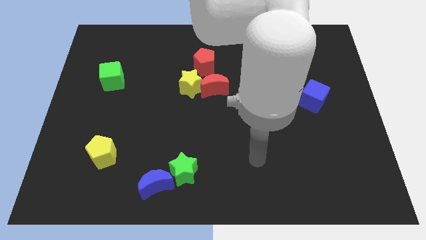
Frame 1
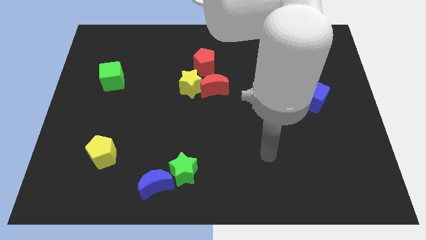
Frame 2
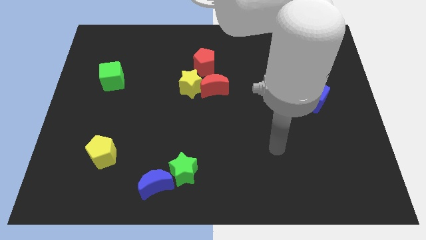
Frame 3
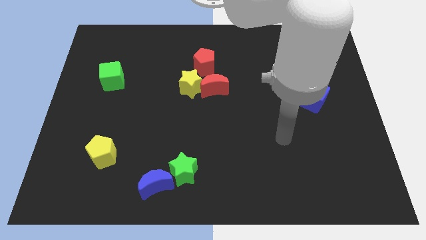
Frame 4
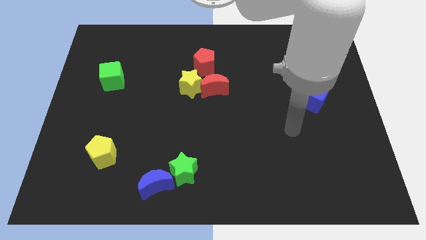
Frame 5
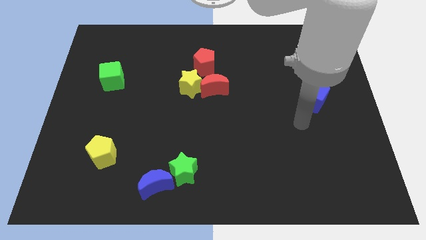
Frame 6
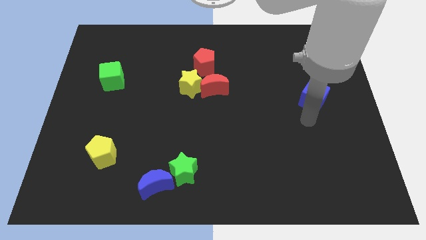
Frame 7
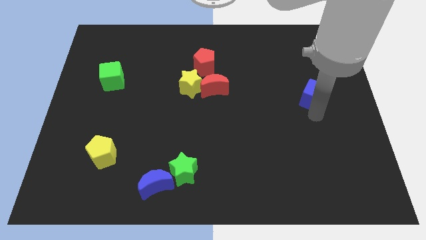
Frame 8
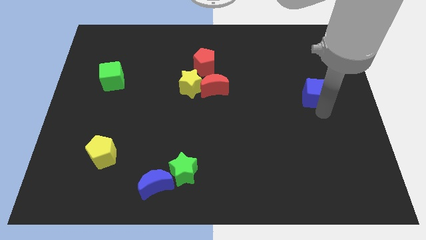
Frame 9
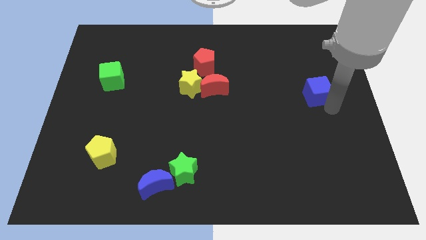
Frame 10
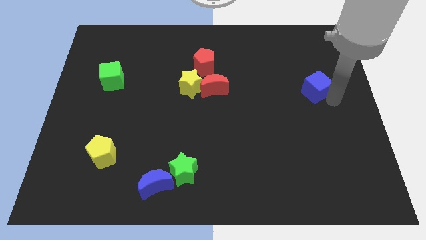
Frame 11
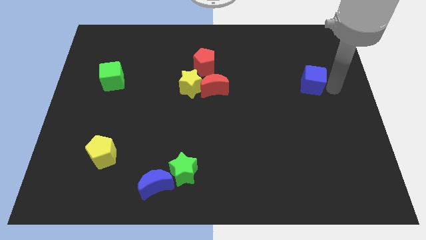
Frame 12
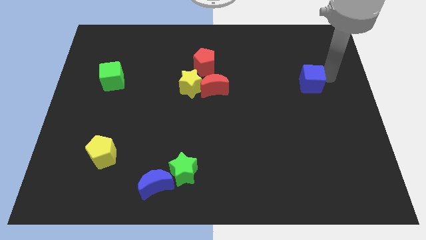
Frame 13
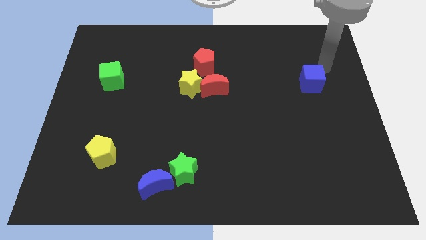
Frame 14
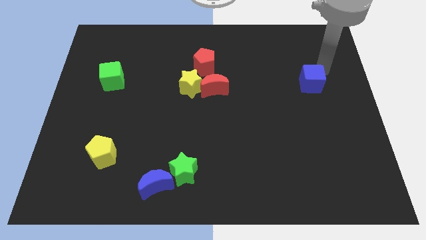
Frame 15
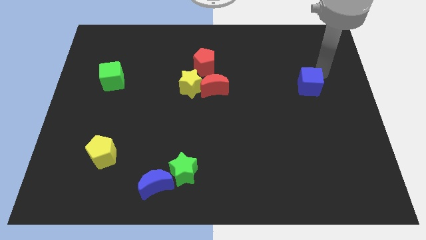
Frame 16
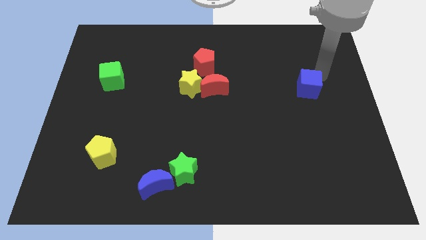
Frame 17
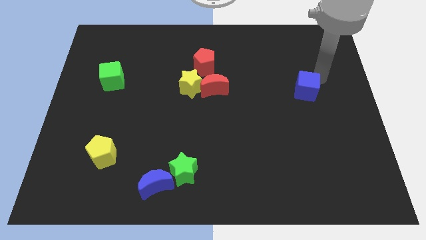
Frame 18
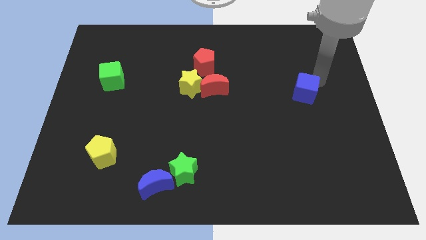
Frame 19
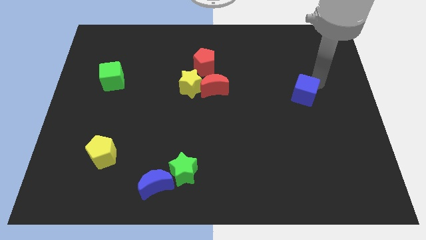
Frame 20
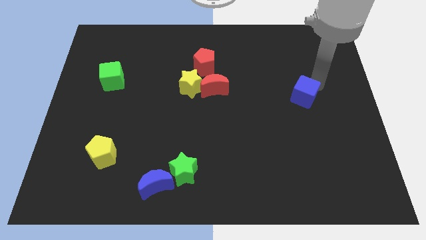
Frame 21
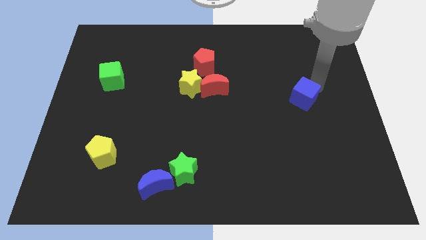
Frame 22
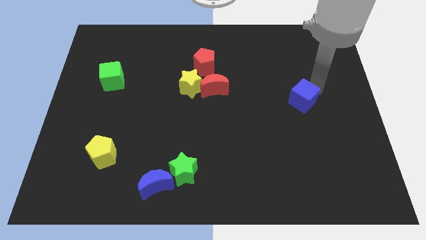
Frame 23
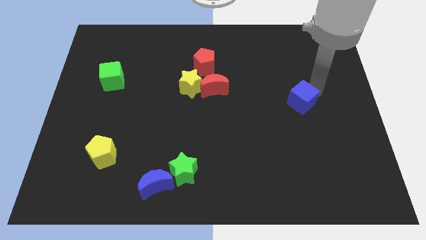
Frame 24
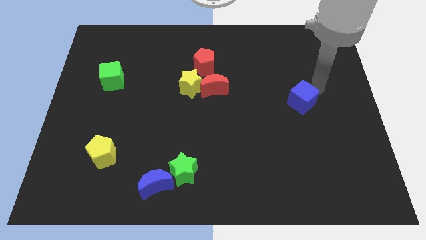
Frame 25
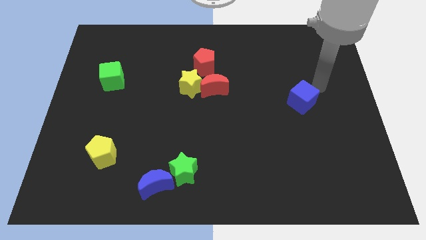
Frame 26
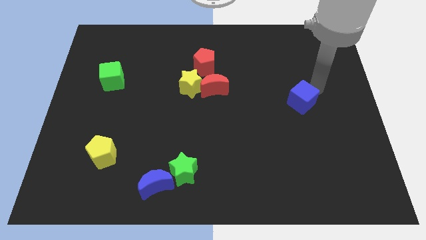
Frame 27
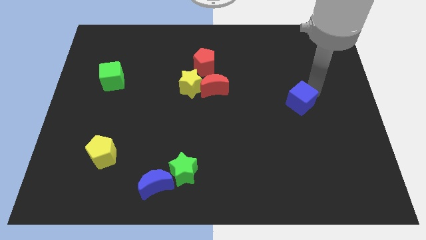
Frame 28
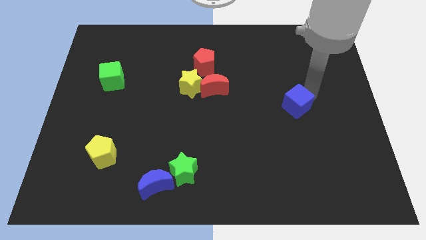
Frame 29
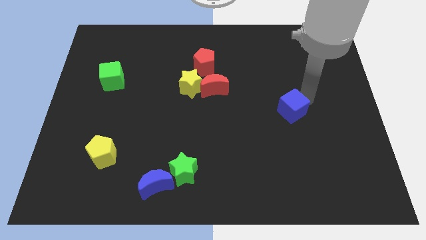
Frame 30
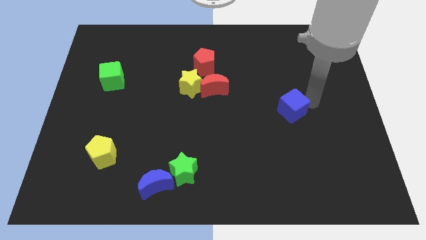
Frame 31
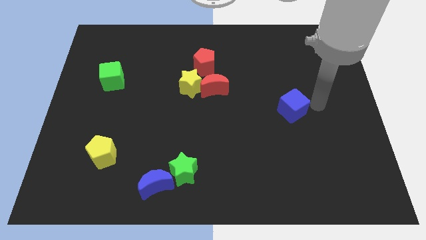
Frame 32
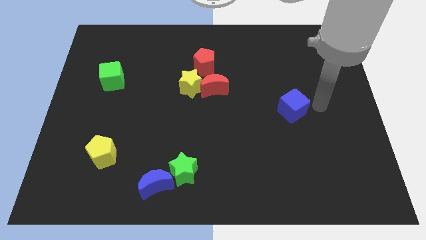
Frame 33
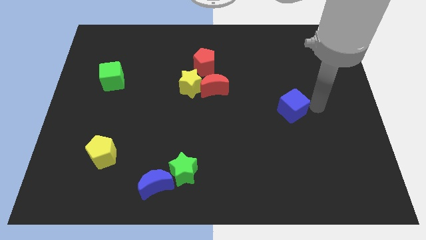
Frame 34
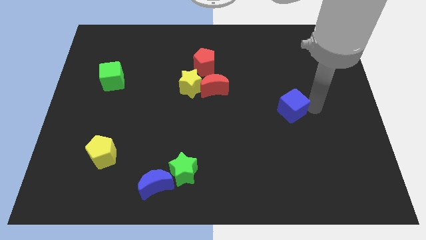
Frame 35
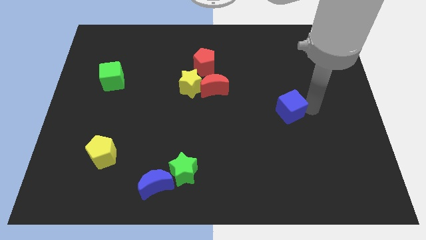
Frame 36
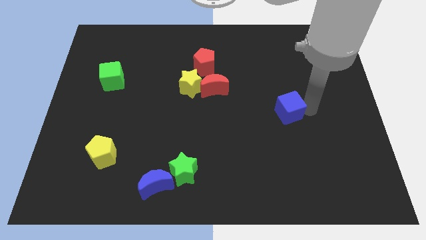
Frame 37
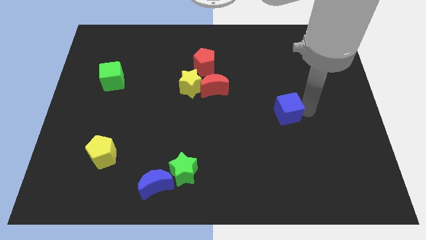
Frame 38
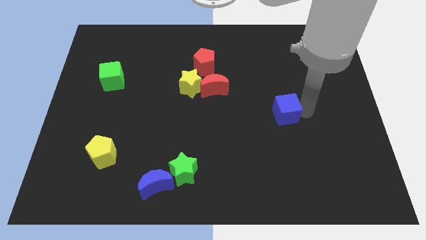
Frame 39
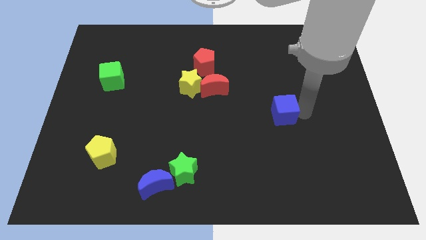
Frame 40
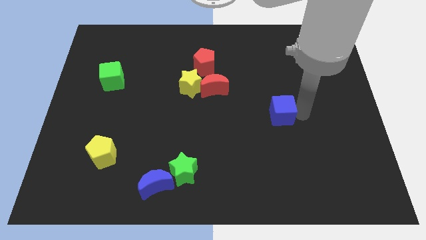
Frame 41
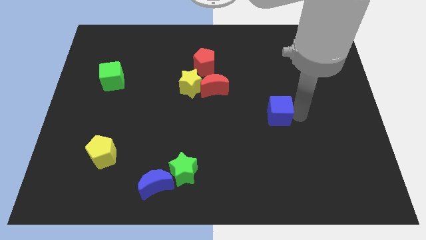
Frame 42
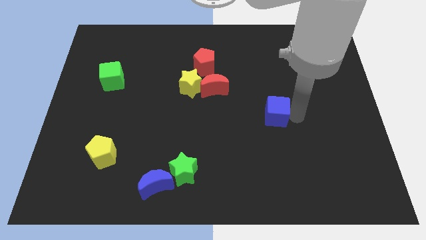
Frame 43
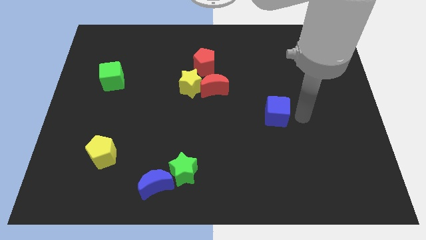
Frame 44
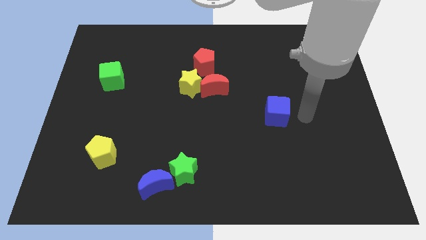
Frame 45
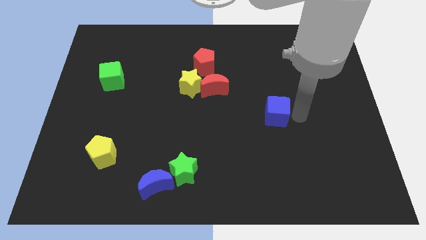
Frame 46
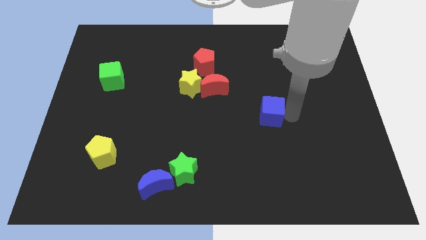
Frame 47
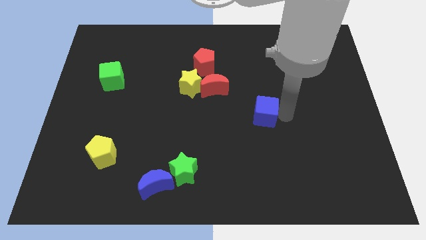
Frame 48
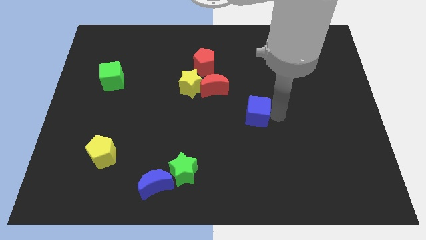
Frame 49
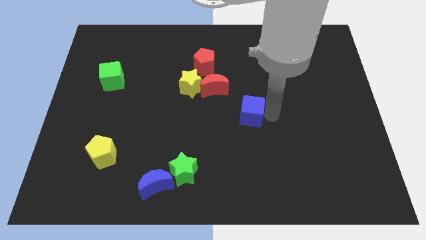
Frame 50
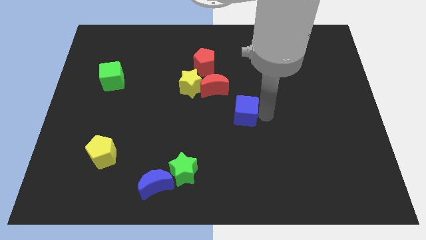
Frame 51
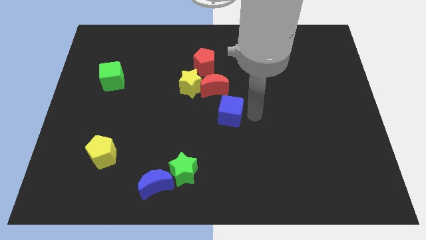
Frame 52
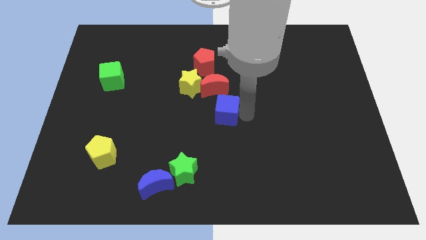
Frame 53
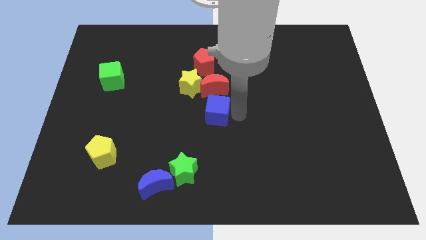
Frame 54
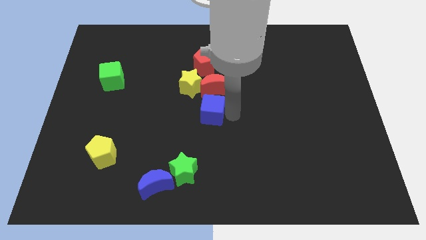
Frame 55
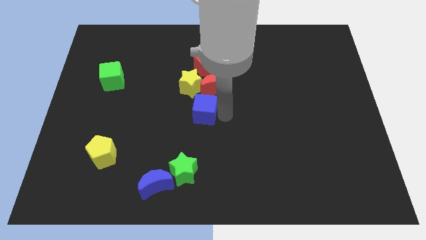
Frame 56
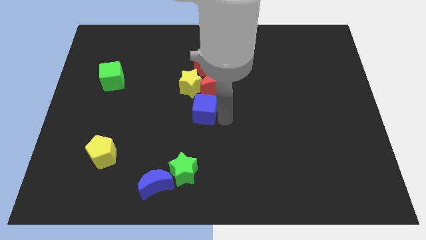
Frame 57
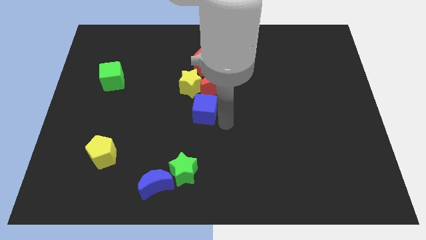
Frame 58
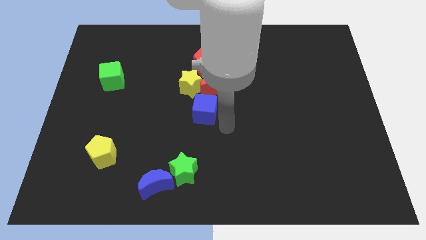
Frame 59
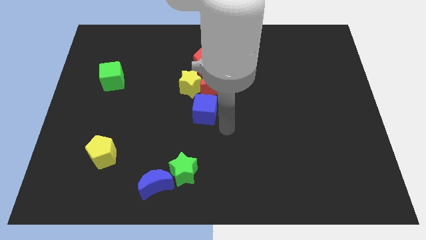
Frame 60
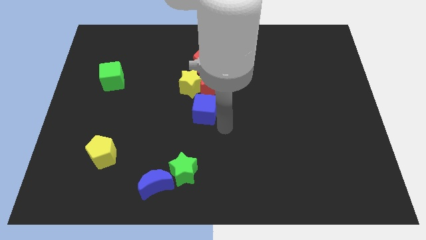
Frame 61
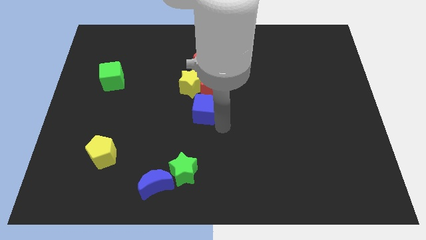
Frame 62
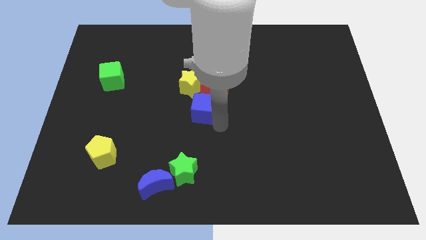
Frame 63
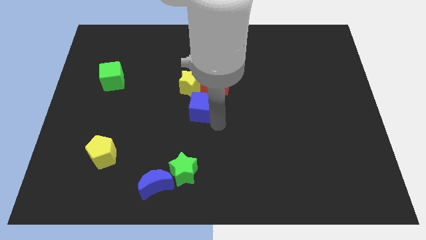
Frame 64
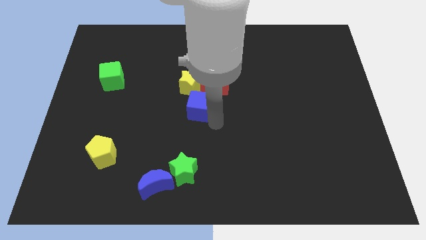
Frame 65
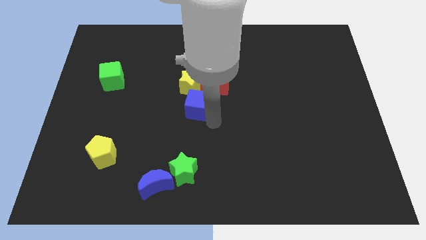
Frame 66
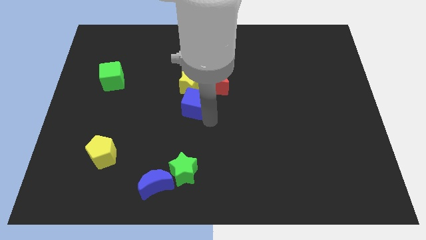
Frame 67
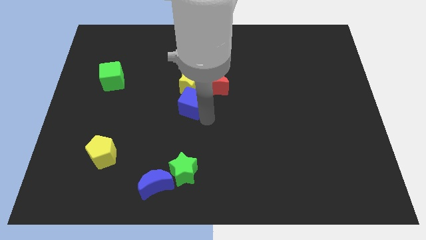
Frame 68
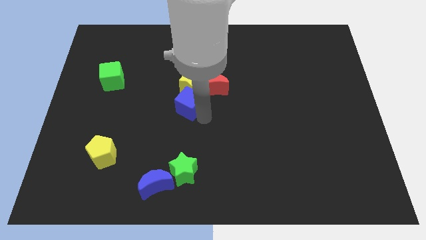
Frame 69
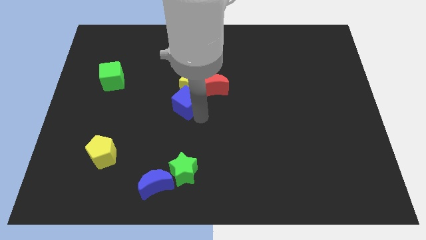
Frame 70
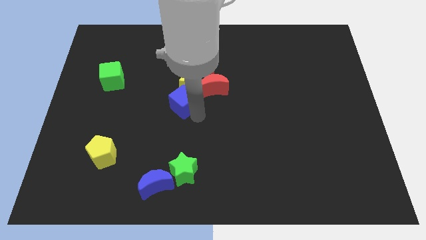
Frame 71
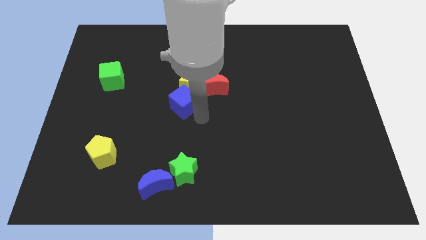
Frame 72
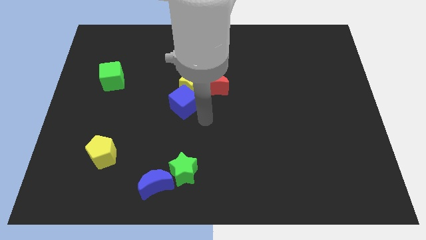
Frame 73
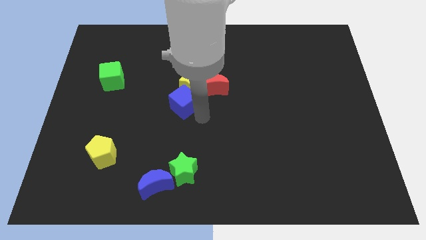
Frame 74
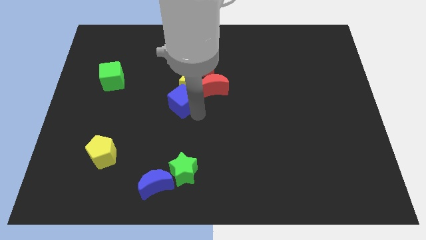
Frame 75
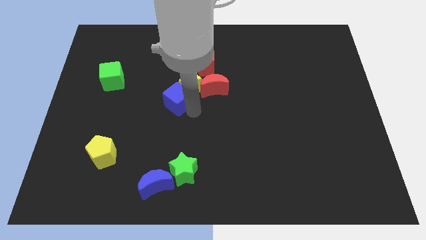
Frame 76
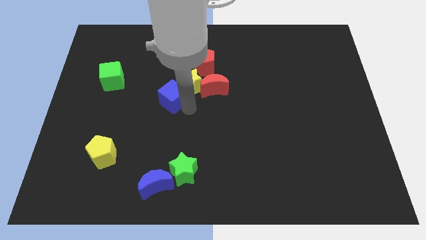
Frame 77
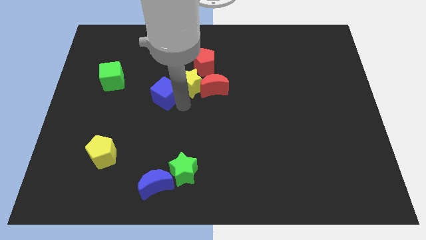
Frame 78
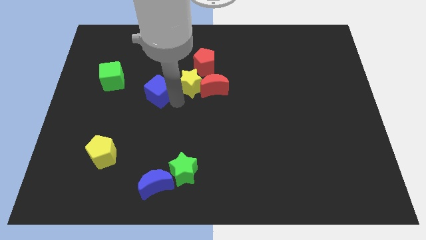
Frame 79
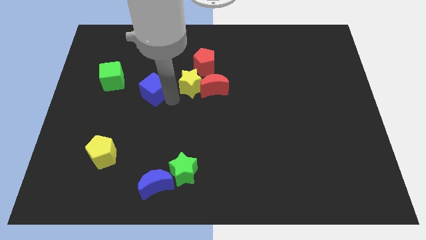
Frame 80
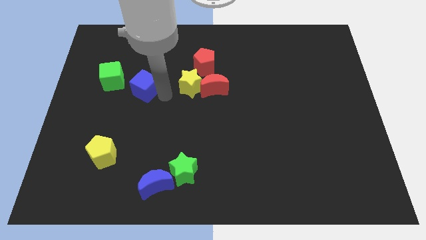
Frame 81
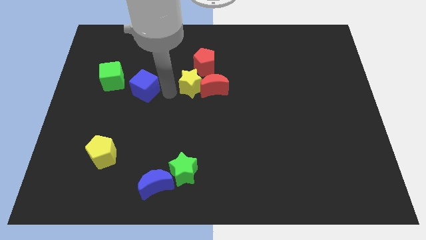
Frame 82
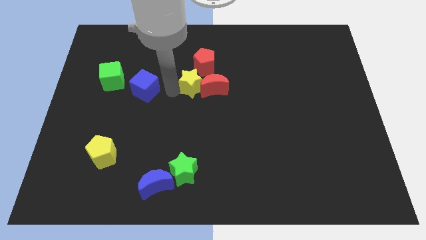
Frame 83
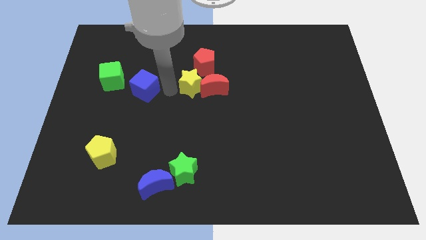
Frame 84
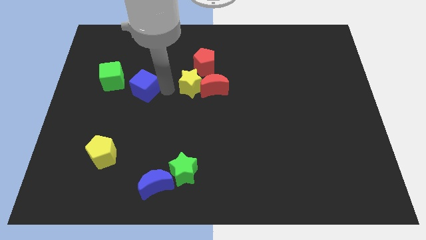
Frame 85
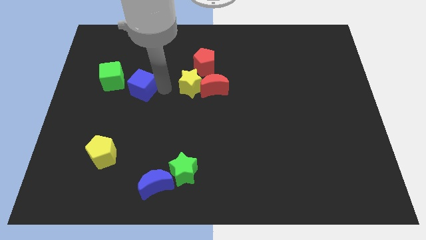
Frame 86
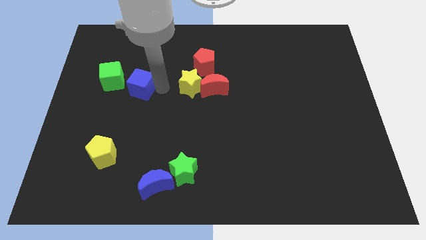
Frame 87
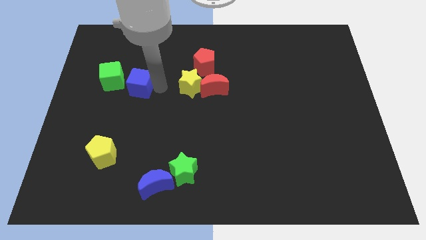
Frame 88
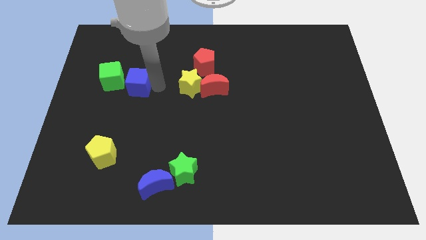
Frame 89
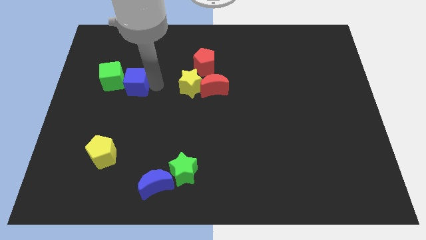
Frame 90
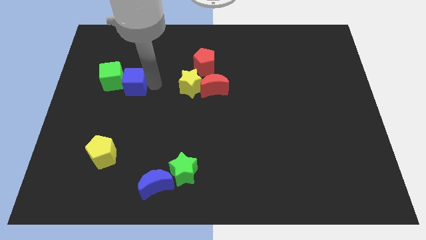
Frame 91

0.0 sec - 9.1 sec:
move the blue cube next to the green cube
